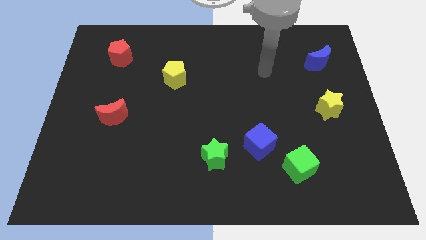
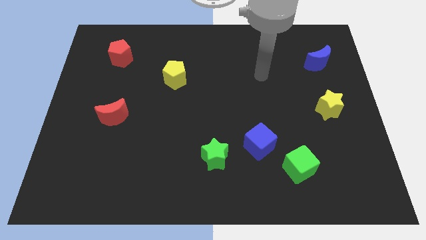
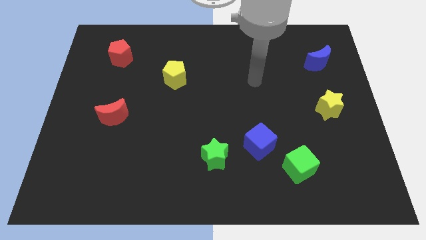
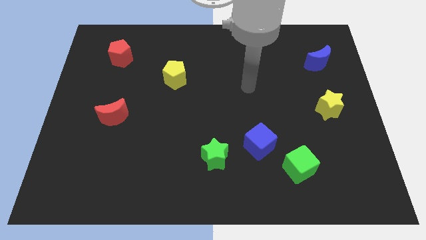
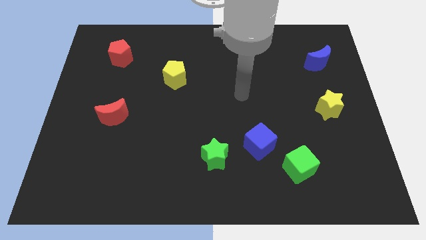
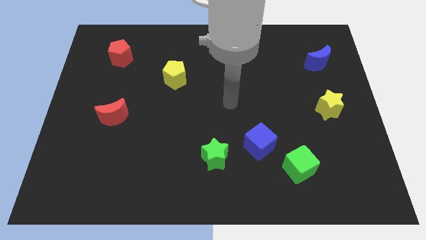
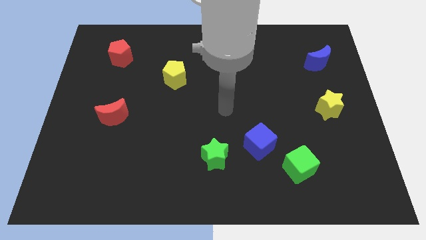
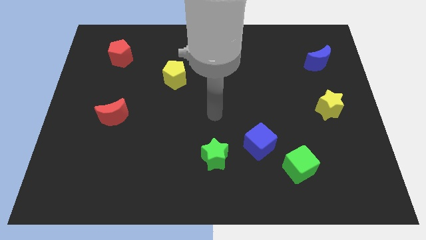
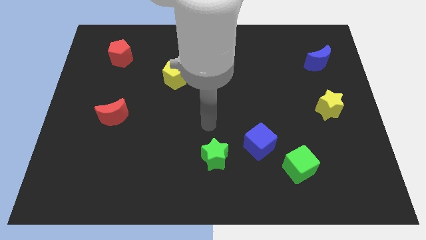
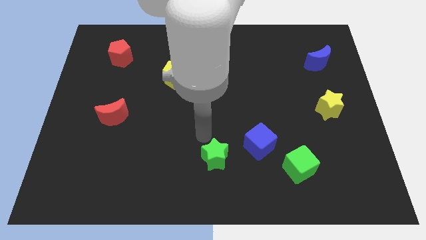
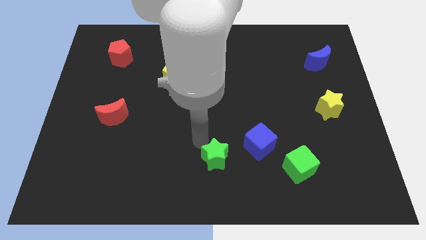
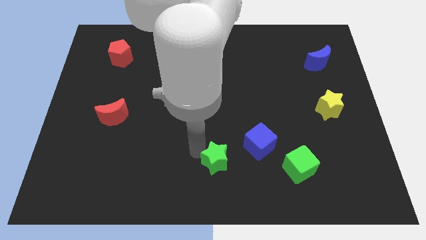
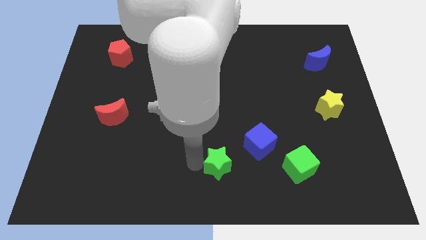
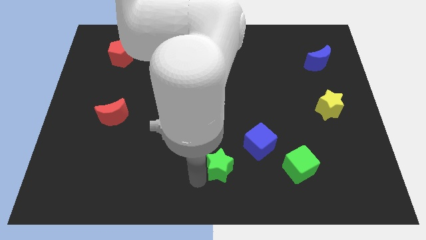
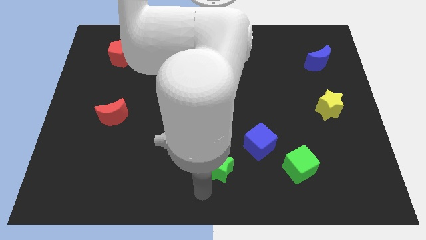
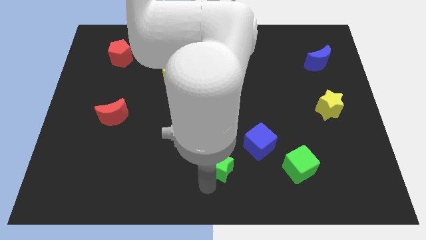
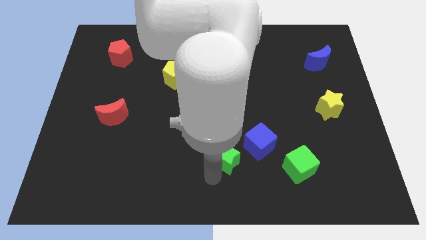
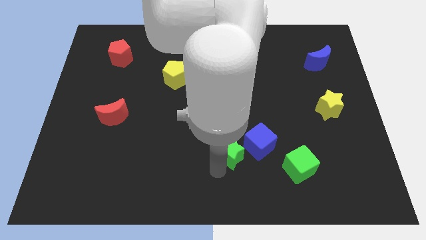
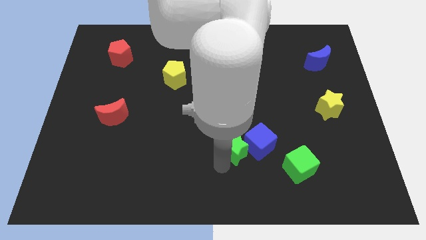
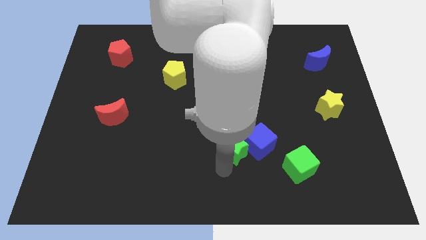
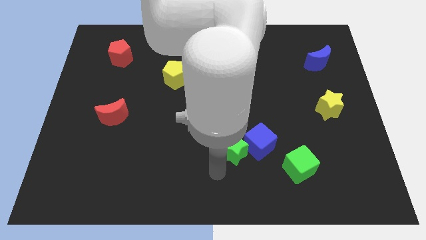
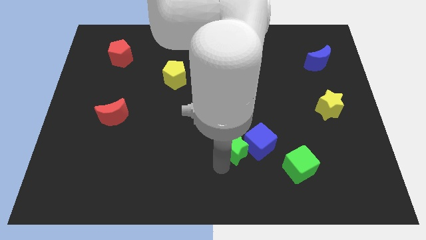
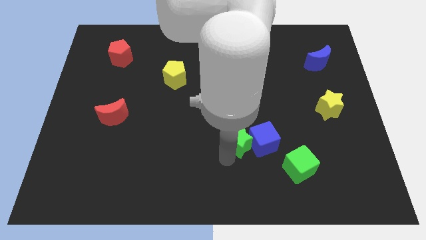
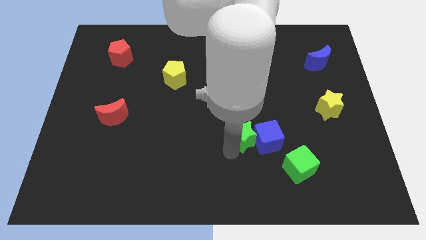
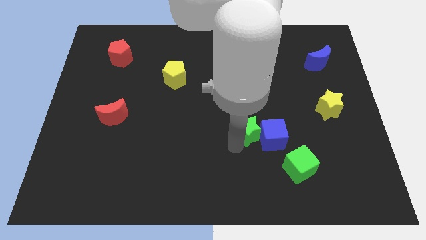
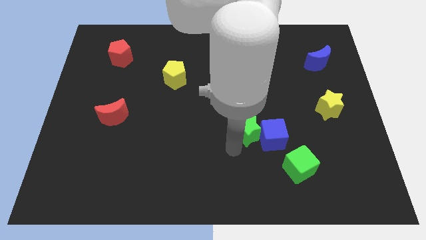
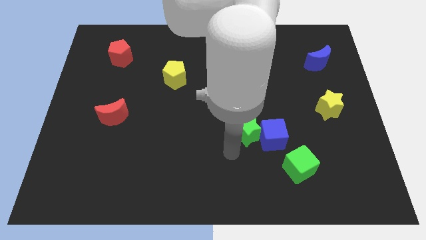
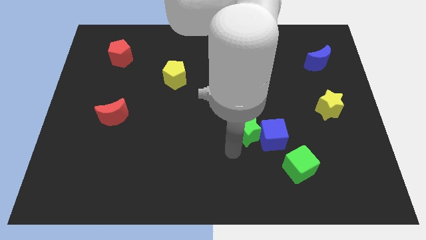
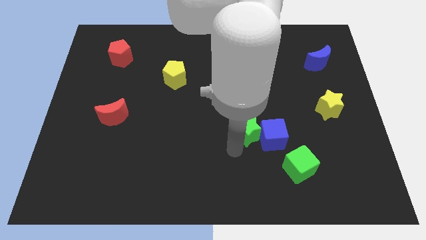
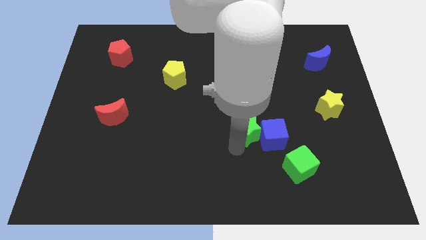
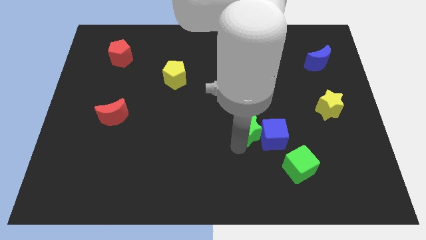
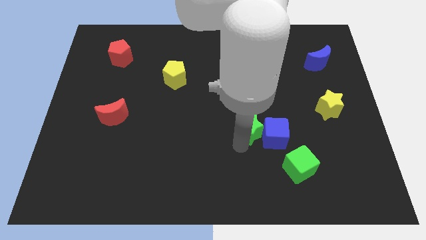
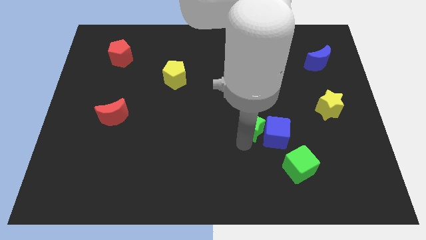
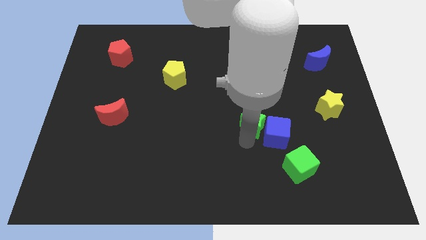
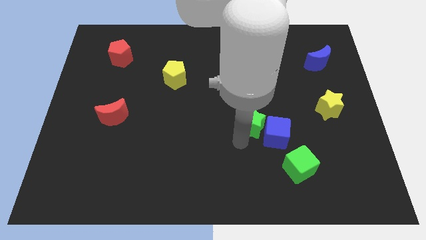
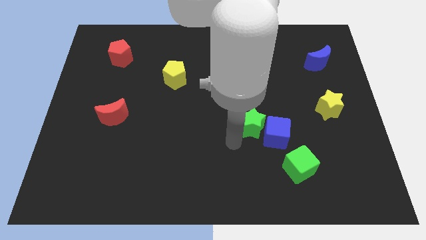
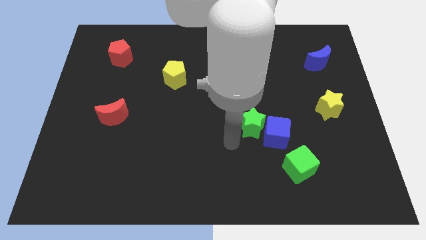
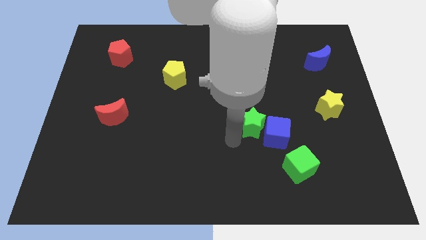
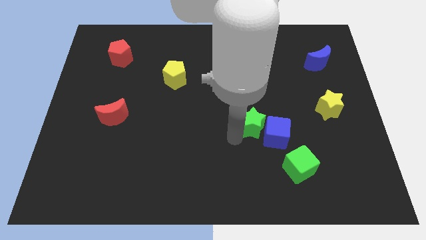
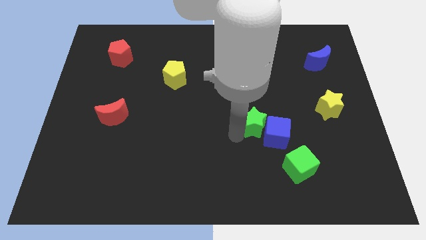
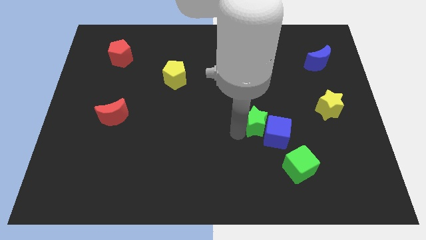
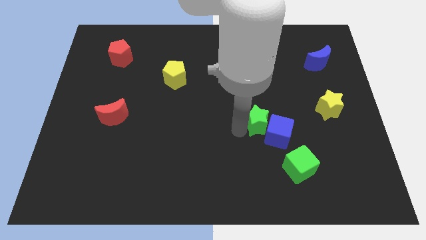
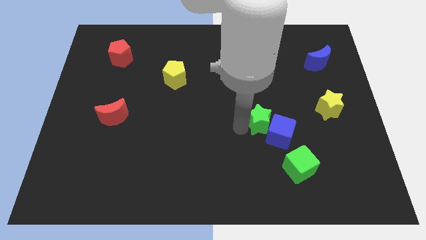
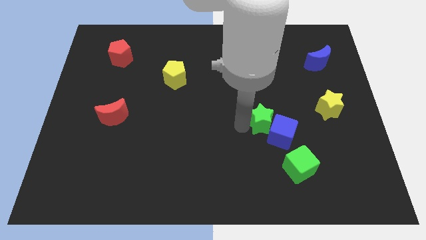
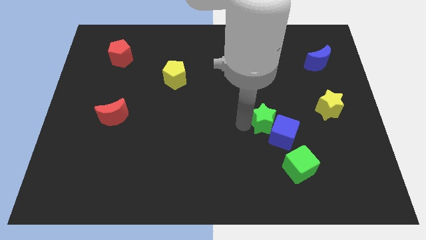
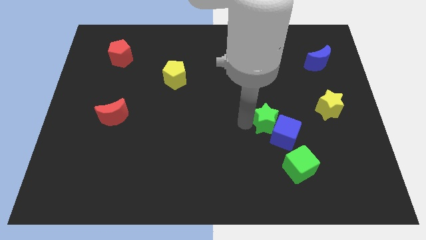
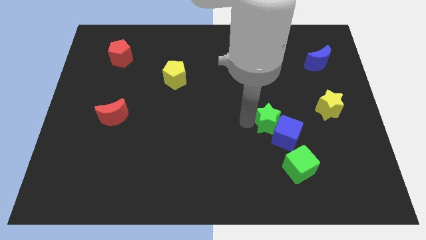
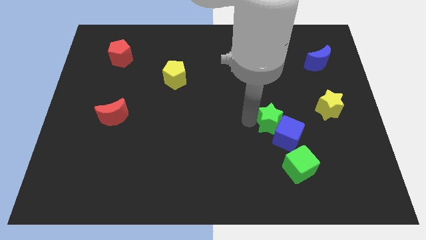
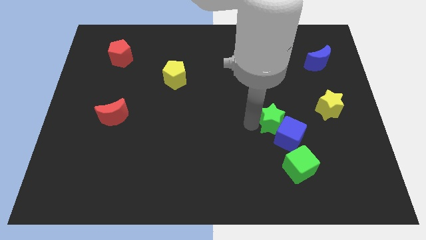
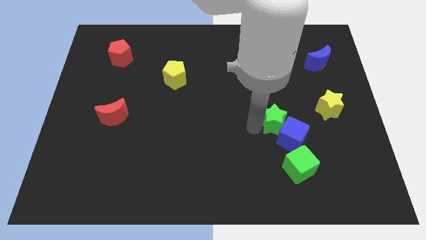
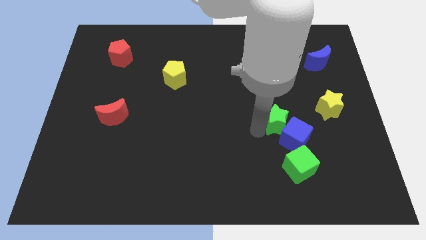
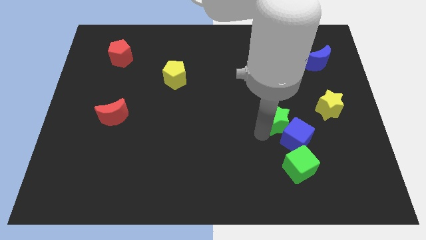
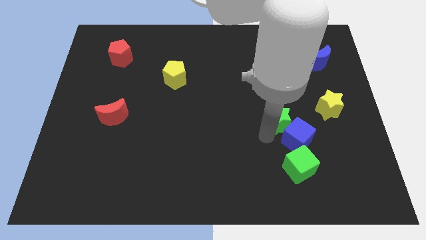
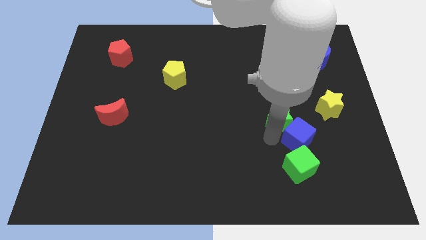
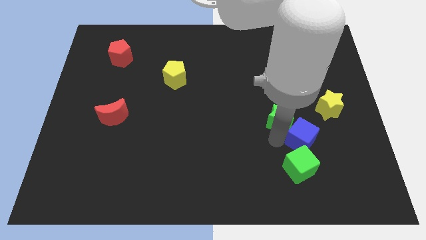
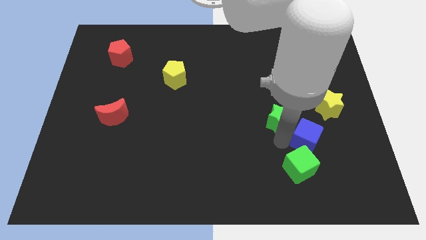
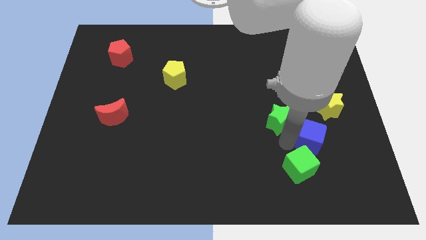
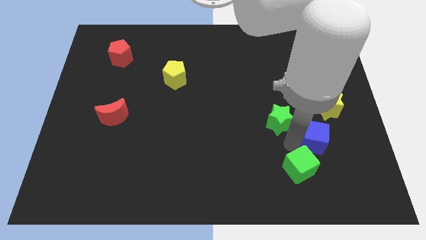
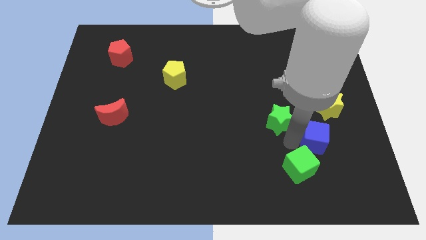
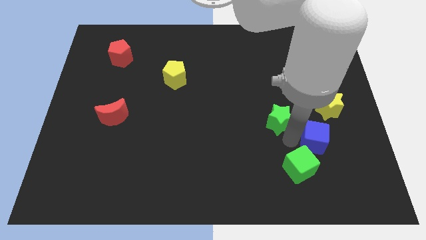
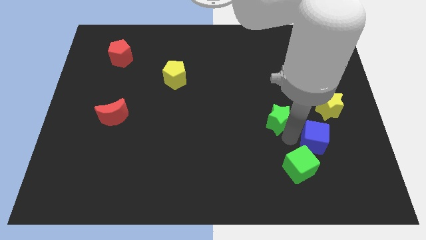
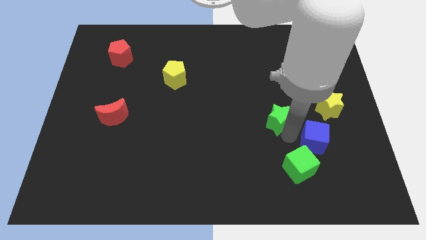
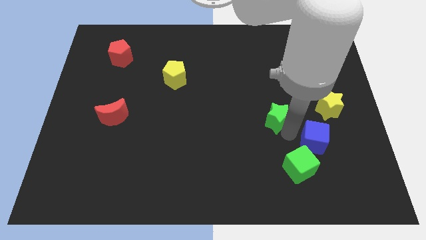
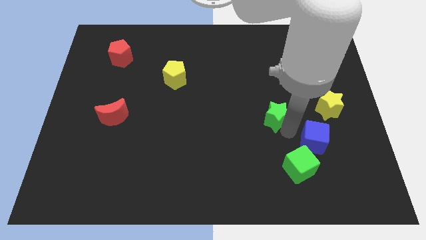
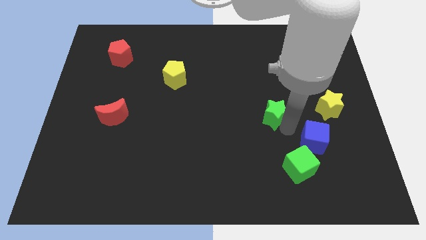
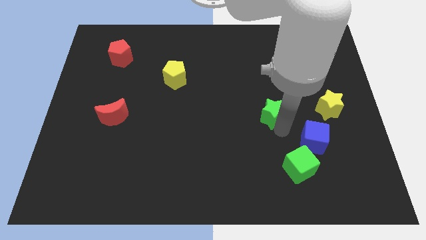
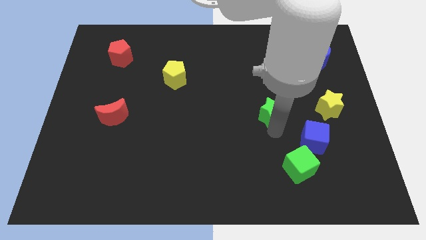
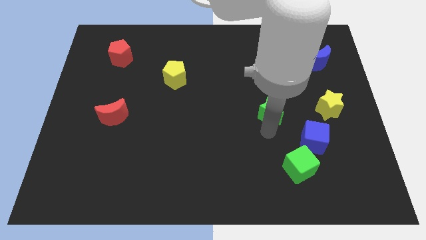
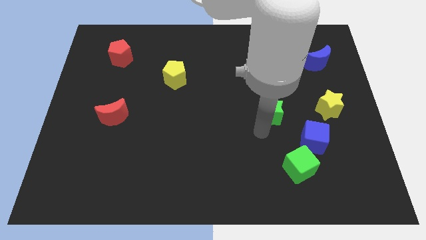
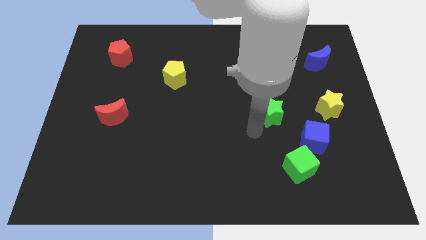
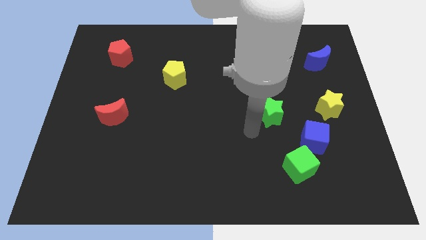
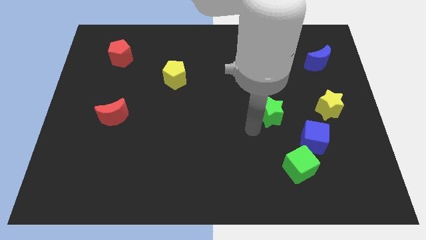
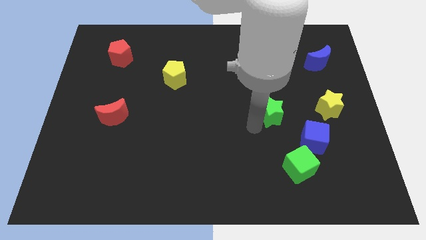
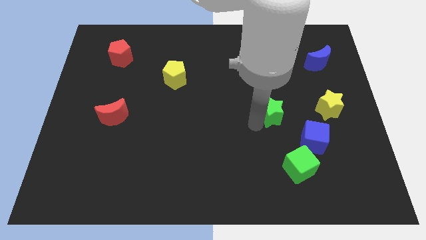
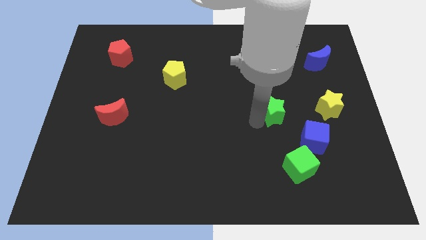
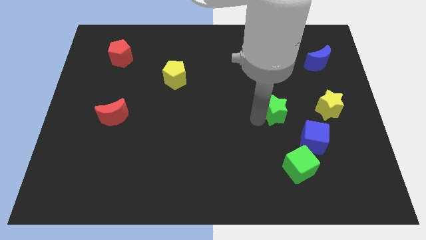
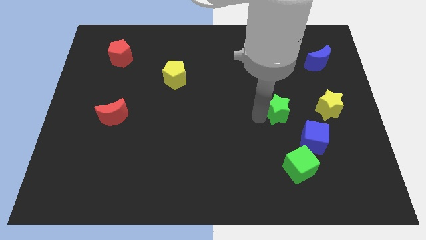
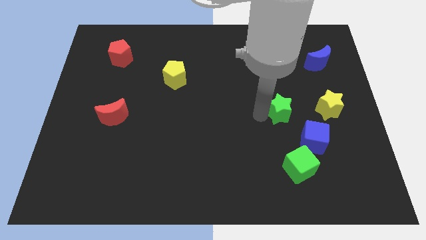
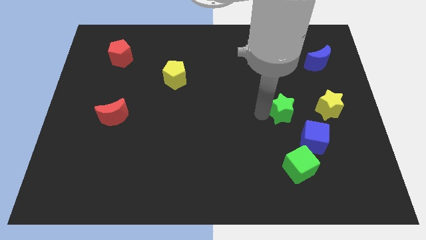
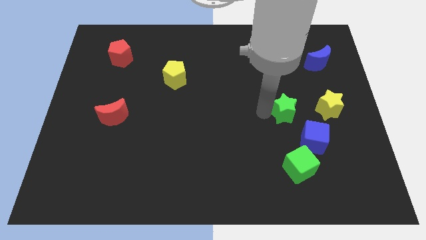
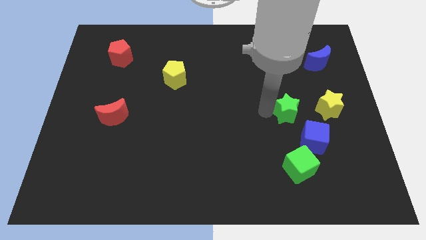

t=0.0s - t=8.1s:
move the green star upwards and right
